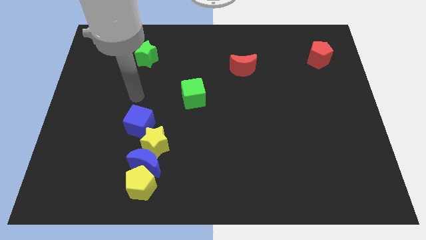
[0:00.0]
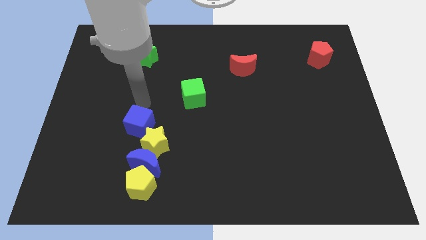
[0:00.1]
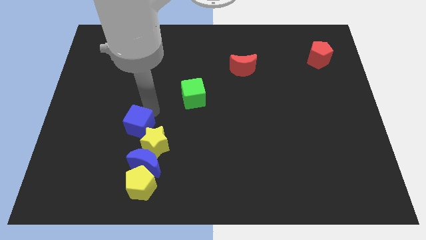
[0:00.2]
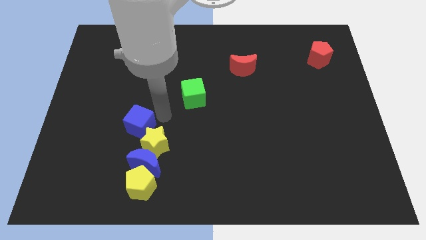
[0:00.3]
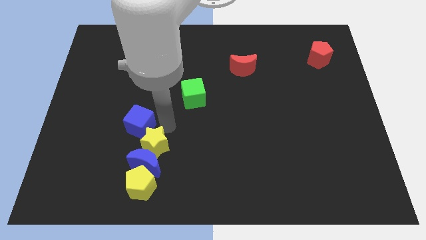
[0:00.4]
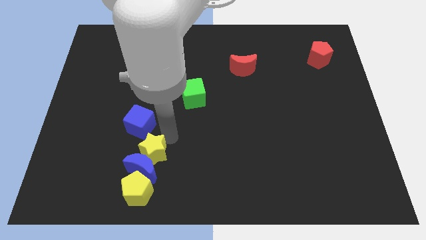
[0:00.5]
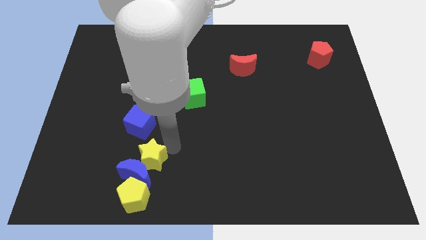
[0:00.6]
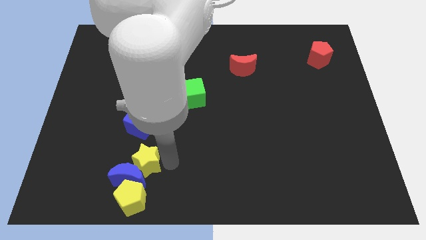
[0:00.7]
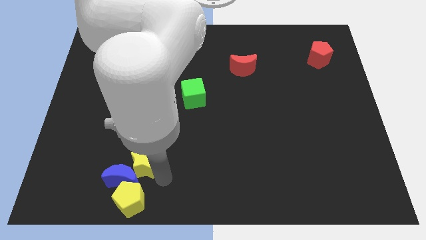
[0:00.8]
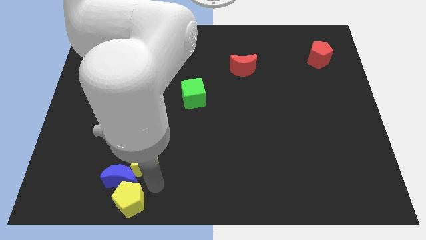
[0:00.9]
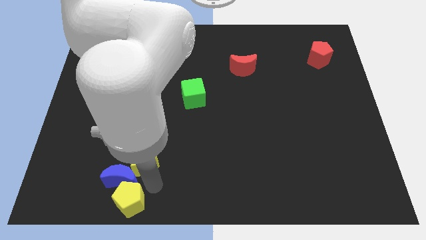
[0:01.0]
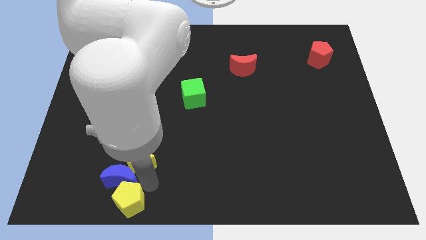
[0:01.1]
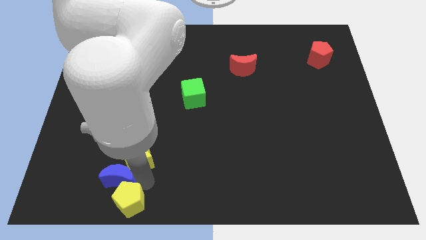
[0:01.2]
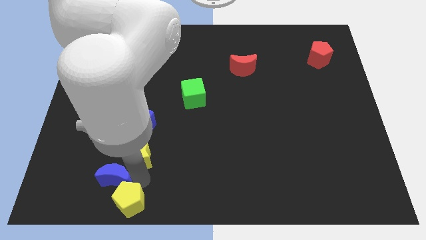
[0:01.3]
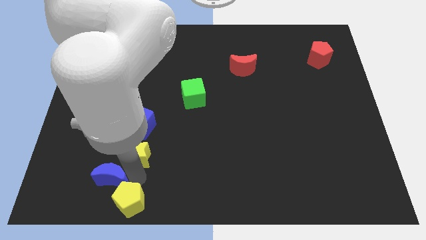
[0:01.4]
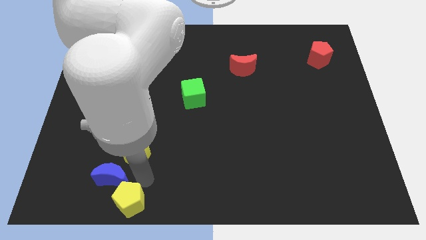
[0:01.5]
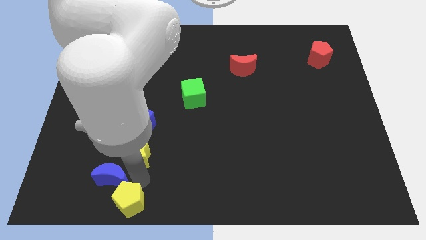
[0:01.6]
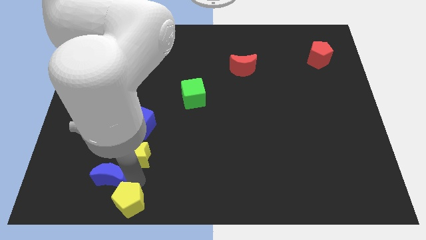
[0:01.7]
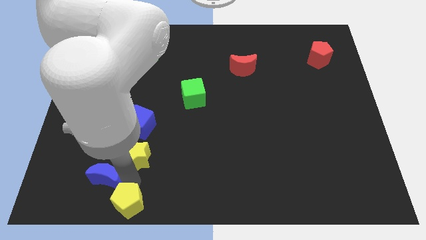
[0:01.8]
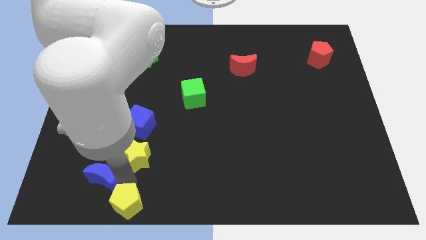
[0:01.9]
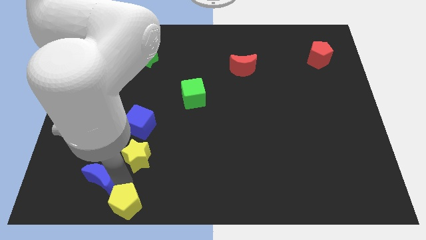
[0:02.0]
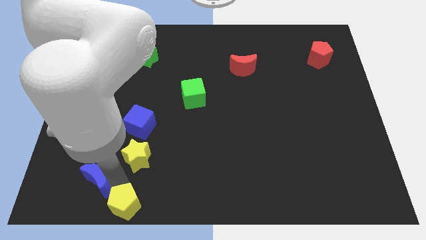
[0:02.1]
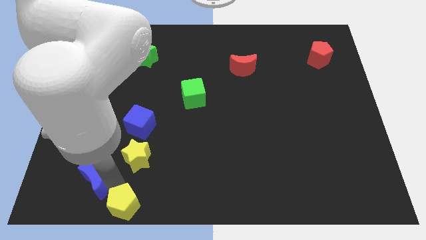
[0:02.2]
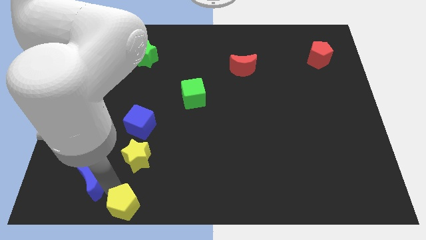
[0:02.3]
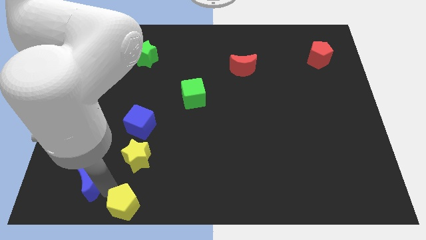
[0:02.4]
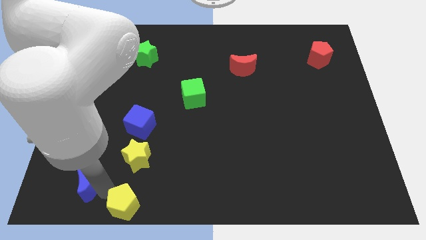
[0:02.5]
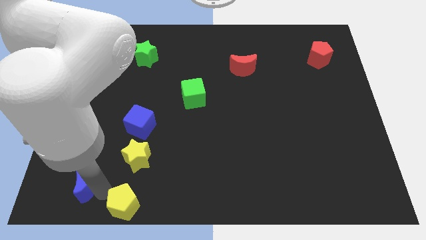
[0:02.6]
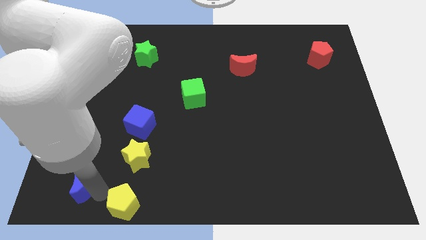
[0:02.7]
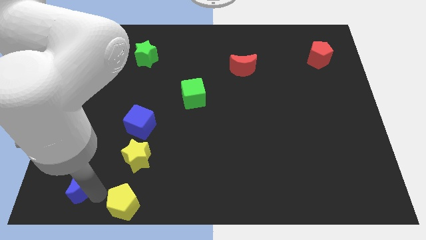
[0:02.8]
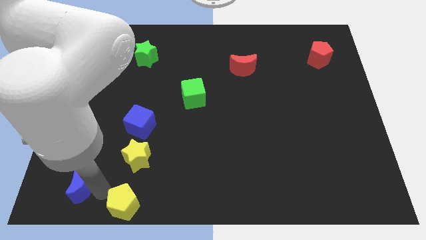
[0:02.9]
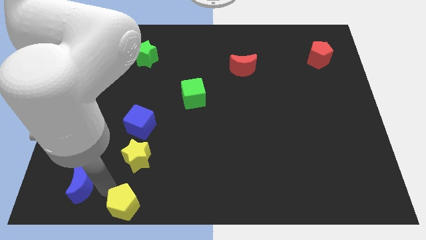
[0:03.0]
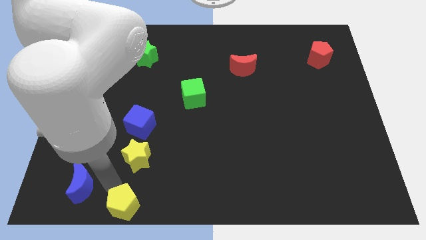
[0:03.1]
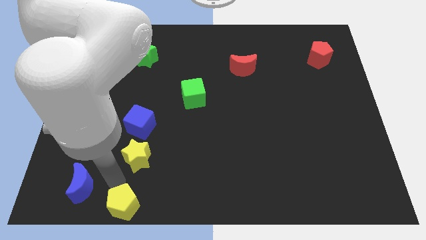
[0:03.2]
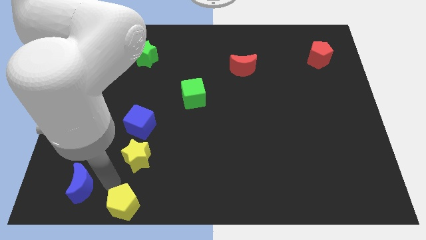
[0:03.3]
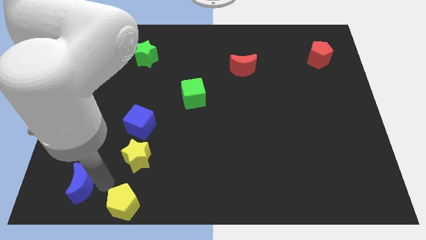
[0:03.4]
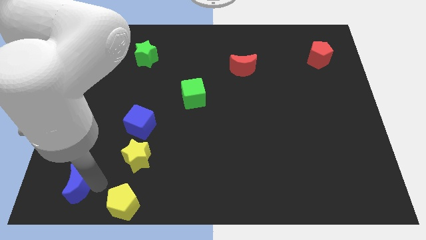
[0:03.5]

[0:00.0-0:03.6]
pull the blue moon apart from the yellow pentagon and yellow star

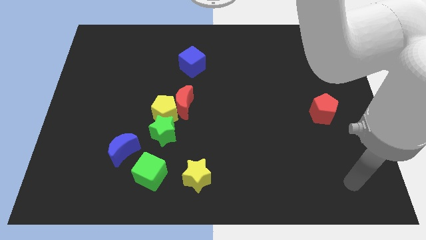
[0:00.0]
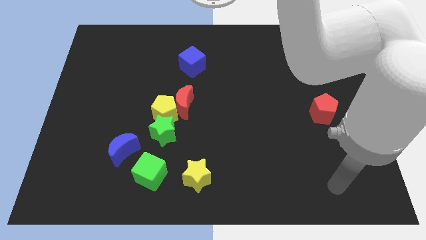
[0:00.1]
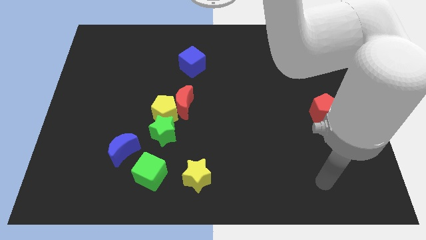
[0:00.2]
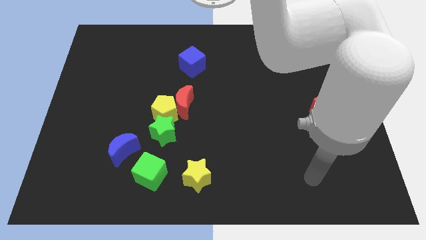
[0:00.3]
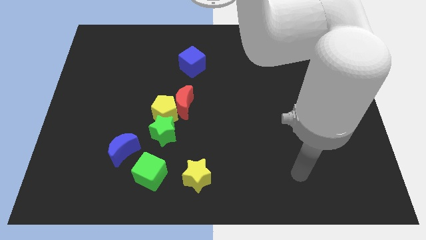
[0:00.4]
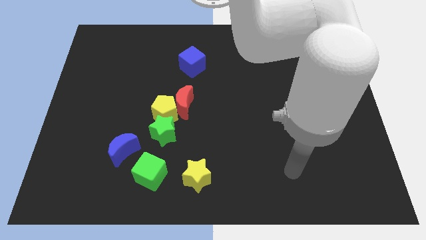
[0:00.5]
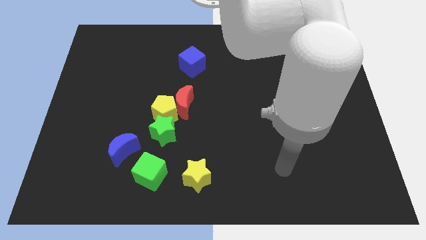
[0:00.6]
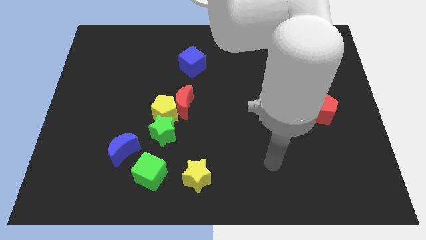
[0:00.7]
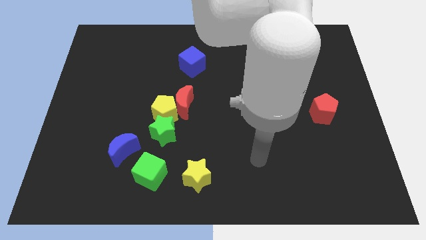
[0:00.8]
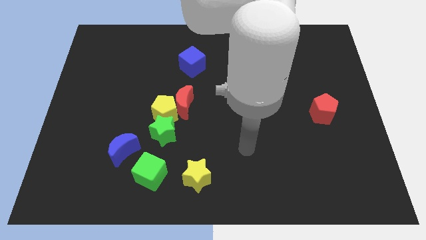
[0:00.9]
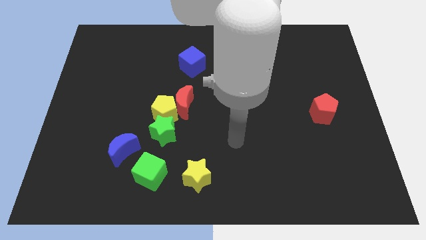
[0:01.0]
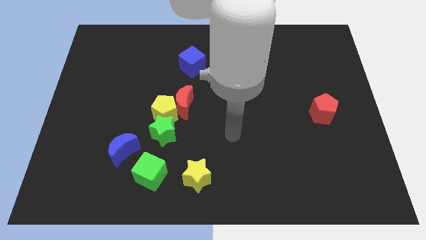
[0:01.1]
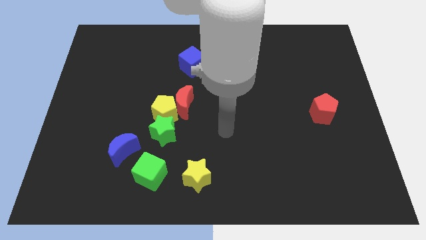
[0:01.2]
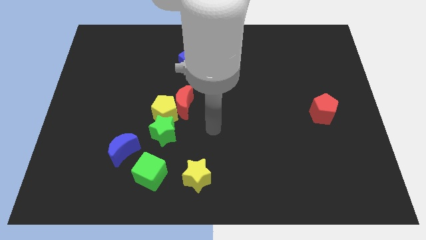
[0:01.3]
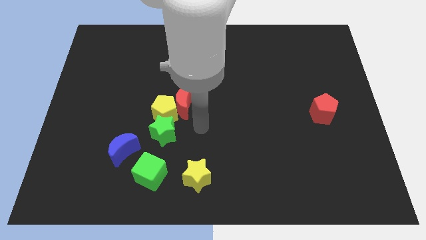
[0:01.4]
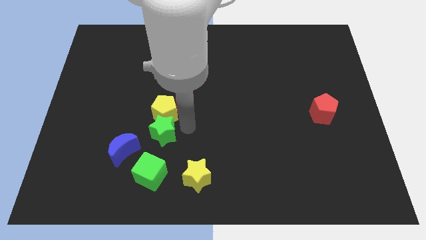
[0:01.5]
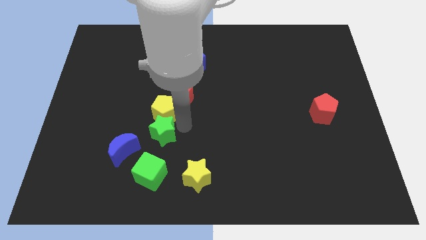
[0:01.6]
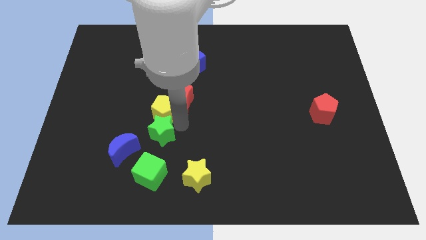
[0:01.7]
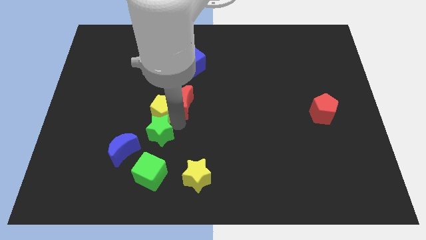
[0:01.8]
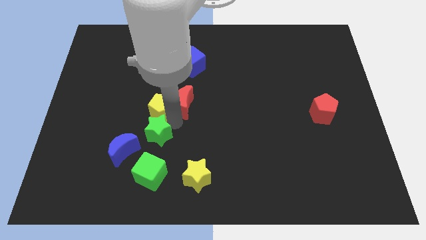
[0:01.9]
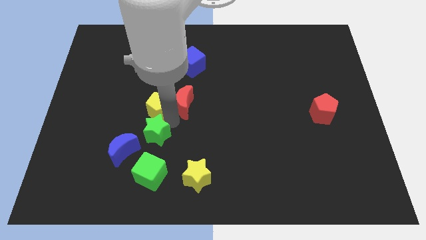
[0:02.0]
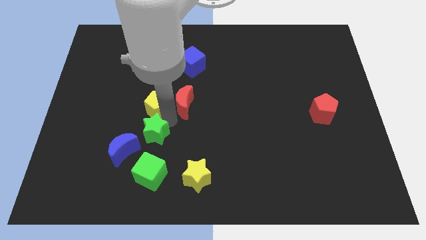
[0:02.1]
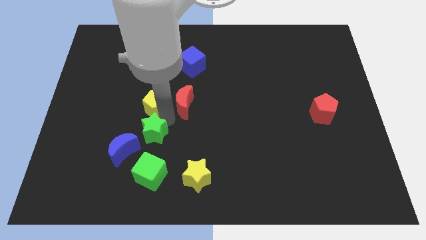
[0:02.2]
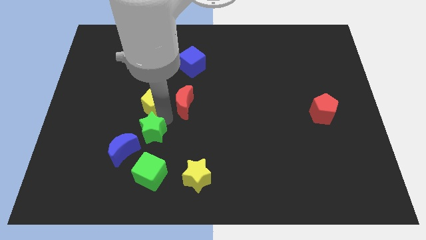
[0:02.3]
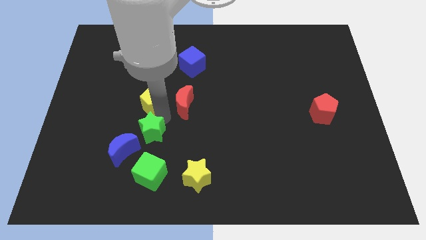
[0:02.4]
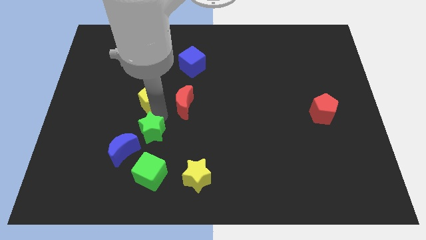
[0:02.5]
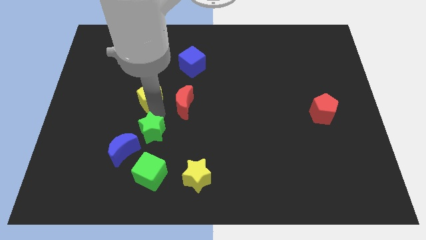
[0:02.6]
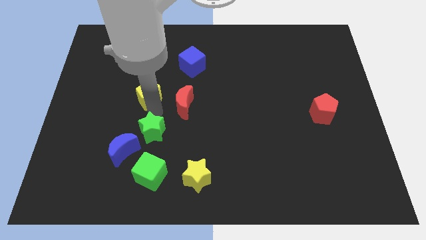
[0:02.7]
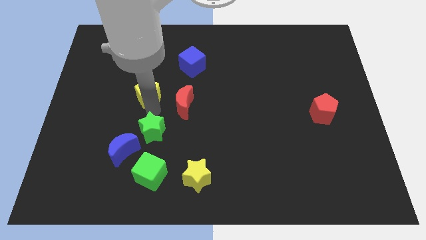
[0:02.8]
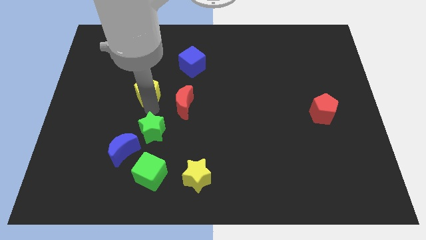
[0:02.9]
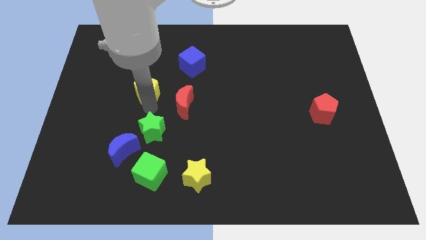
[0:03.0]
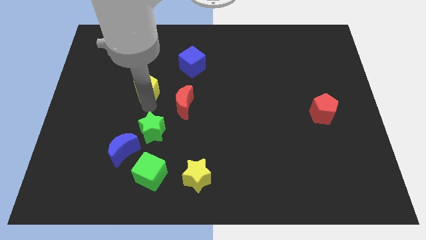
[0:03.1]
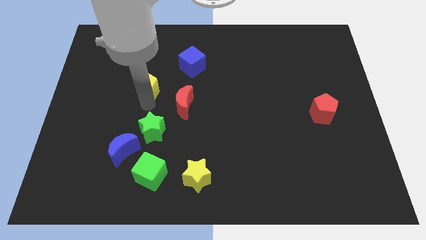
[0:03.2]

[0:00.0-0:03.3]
move the yellow pentagon away from the red moon and green star

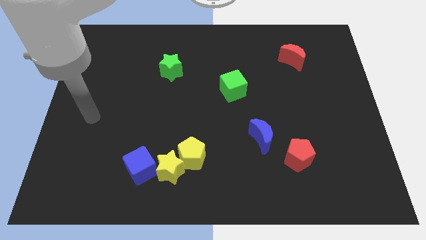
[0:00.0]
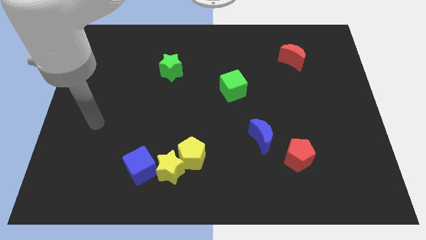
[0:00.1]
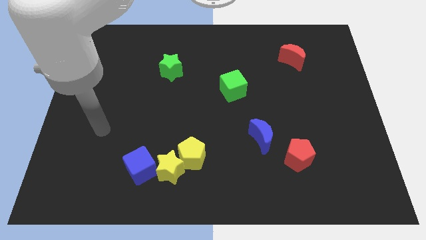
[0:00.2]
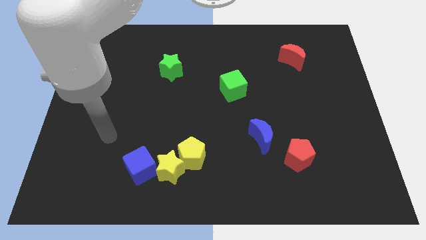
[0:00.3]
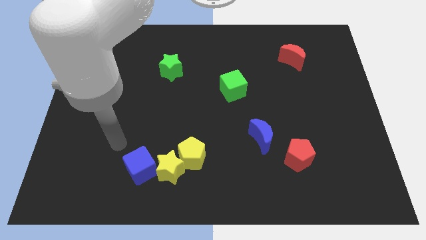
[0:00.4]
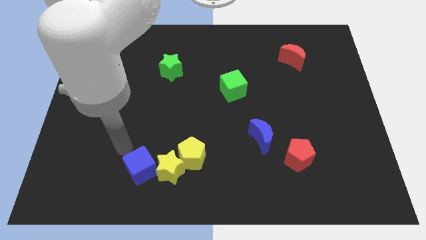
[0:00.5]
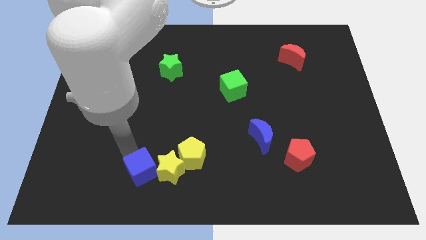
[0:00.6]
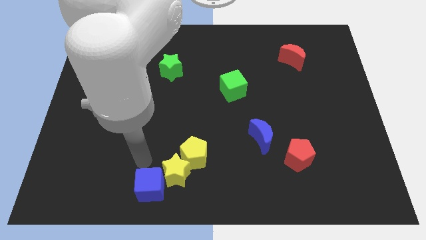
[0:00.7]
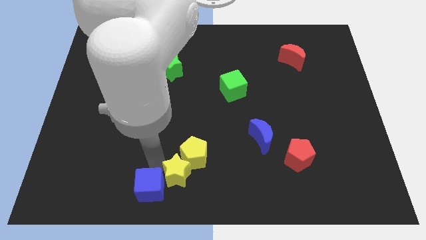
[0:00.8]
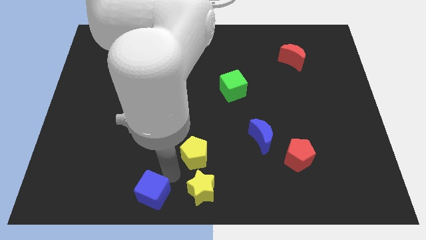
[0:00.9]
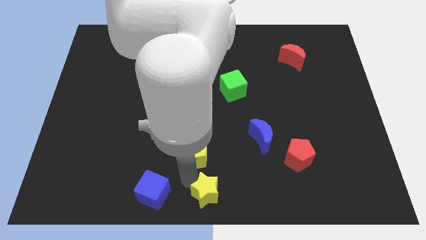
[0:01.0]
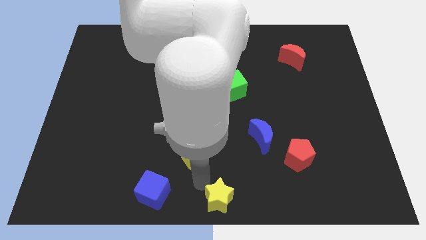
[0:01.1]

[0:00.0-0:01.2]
separate the yellow pentagon from the yellow star

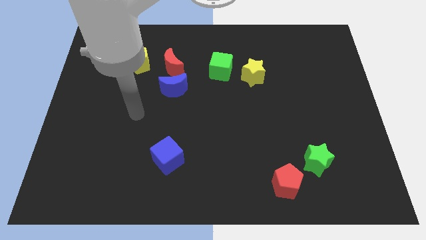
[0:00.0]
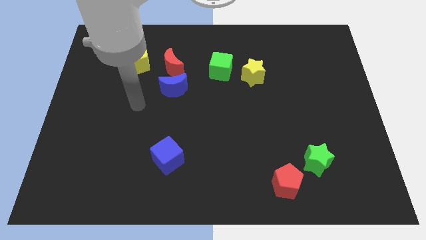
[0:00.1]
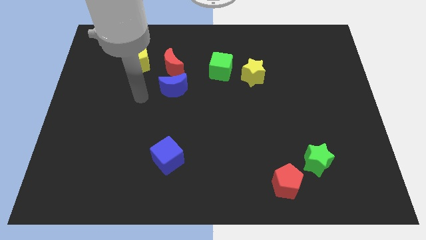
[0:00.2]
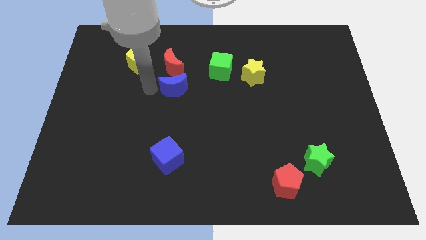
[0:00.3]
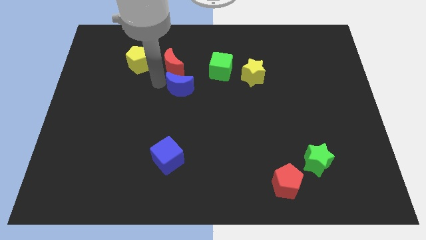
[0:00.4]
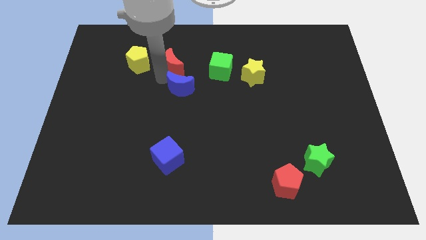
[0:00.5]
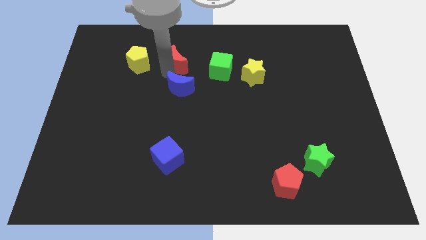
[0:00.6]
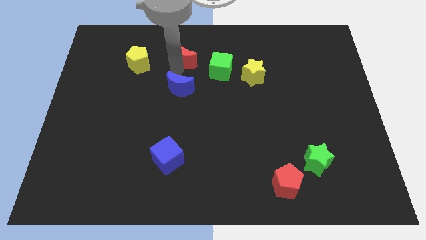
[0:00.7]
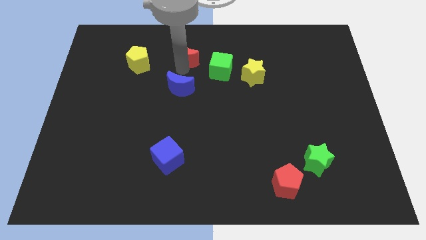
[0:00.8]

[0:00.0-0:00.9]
separate the blue moon from the red moon

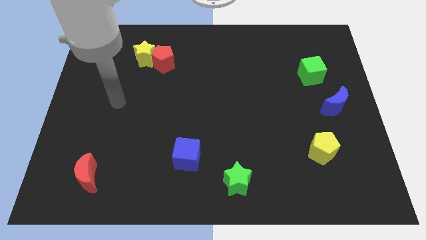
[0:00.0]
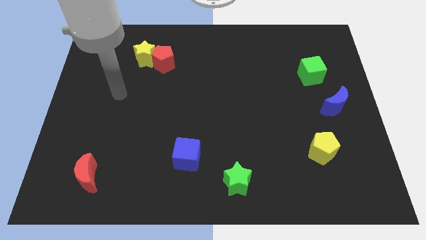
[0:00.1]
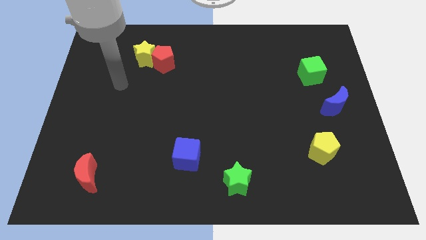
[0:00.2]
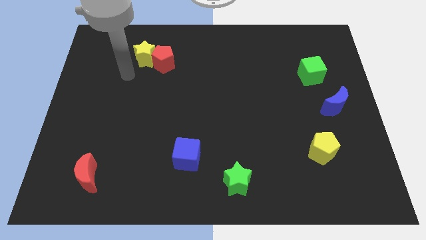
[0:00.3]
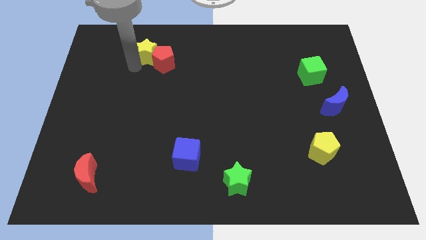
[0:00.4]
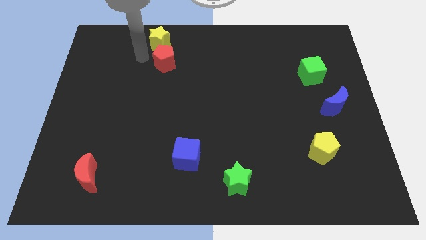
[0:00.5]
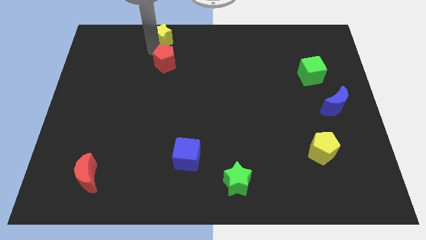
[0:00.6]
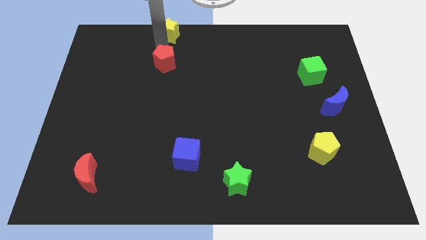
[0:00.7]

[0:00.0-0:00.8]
move the red pentagon away from the yellow star
